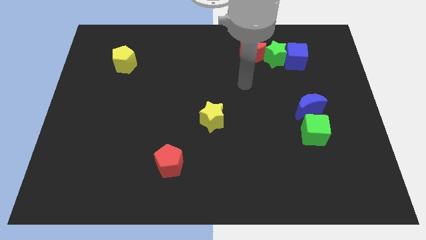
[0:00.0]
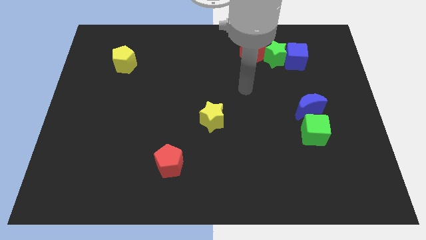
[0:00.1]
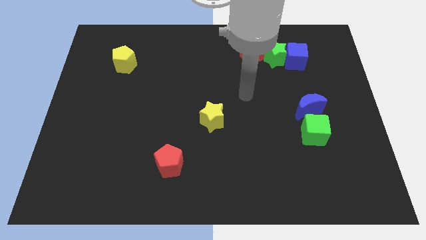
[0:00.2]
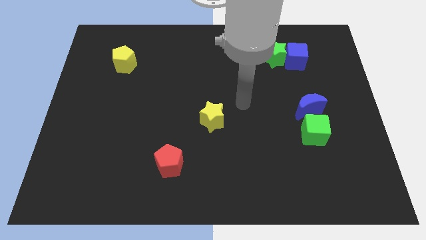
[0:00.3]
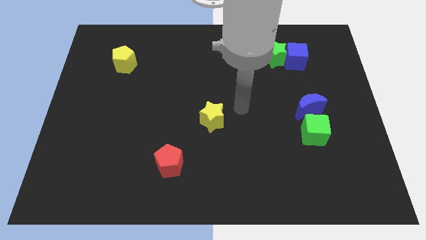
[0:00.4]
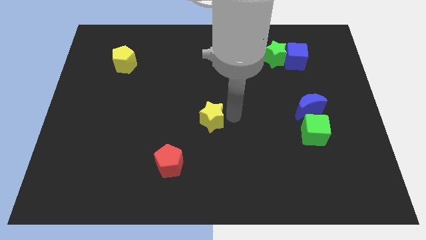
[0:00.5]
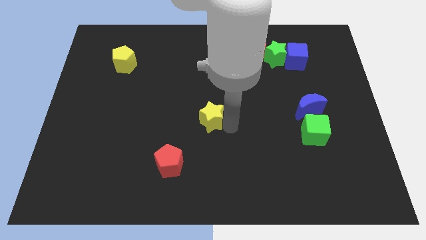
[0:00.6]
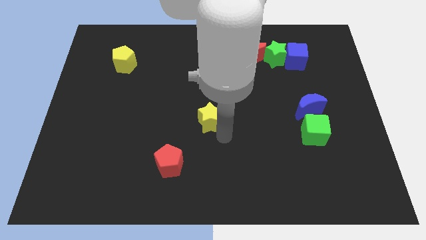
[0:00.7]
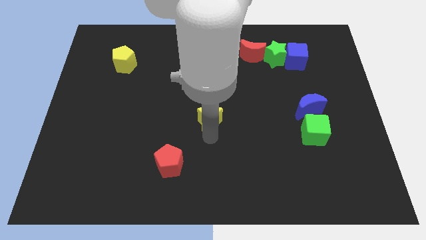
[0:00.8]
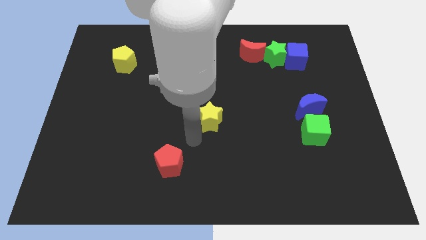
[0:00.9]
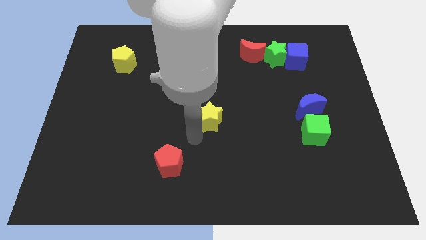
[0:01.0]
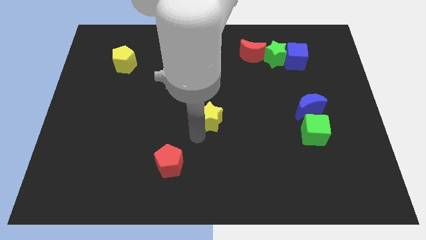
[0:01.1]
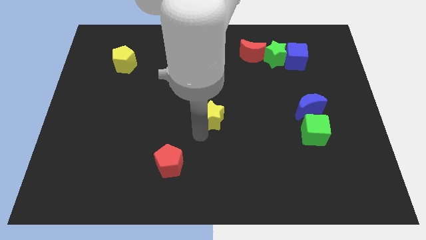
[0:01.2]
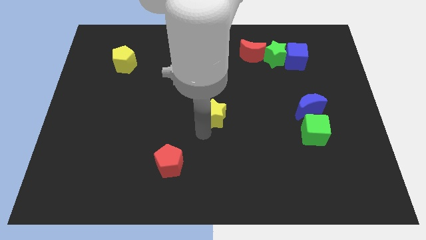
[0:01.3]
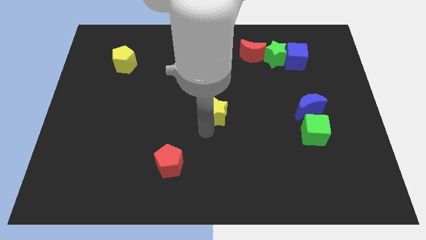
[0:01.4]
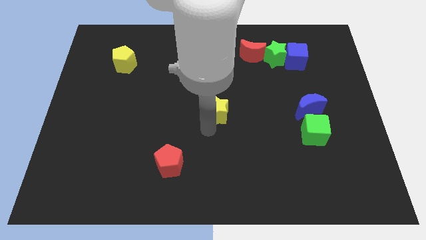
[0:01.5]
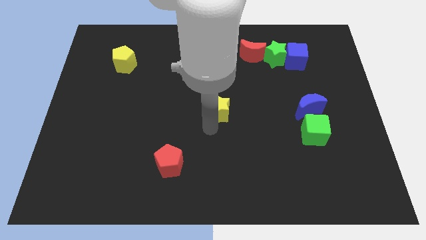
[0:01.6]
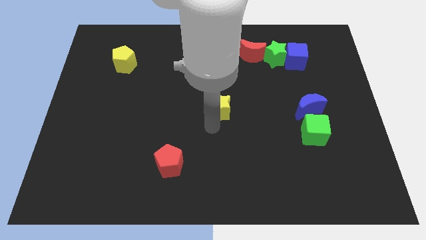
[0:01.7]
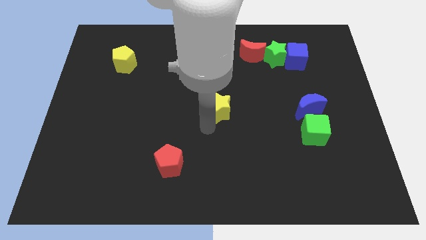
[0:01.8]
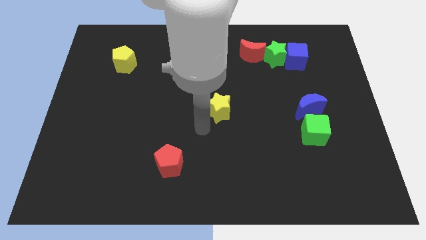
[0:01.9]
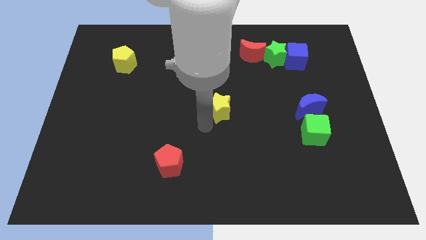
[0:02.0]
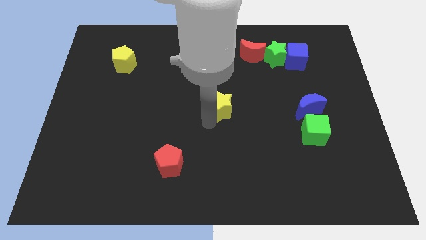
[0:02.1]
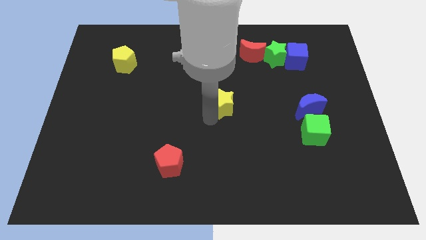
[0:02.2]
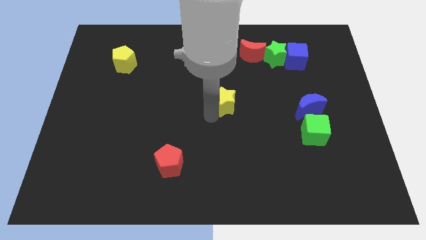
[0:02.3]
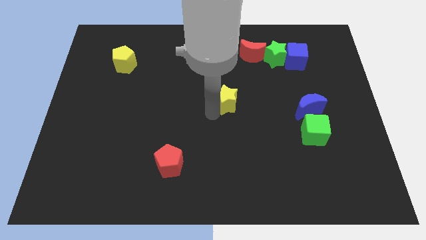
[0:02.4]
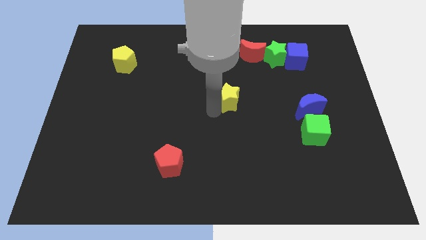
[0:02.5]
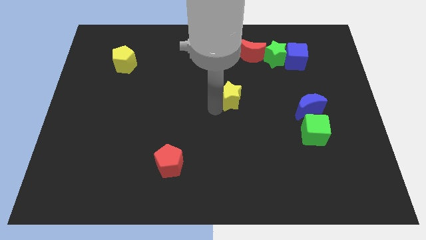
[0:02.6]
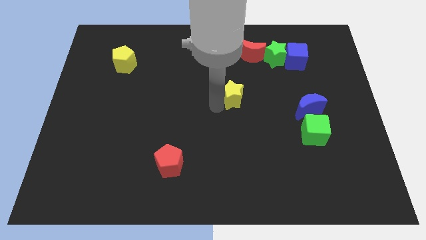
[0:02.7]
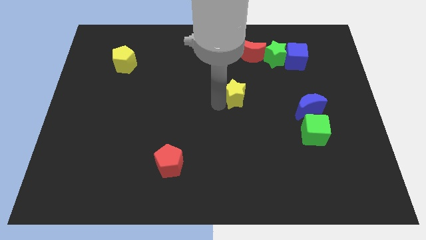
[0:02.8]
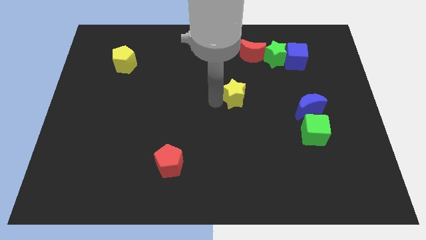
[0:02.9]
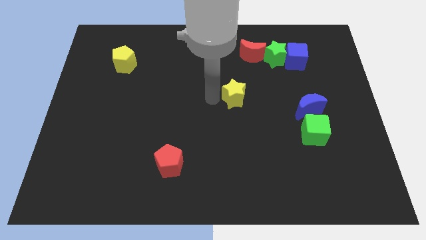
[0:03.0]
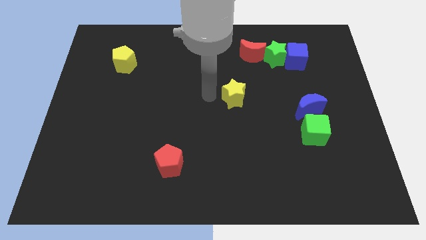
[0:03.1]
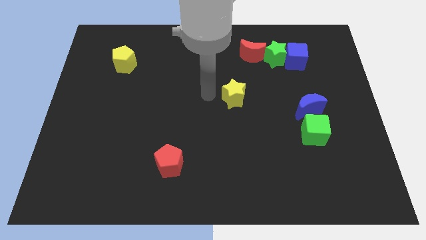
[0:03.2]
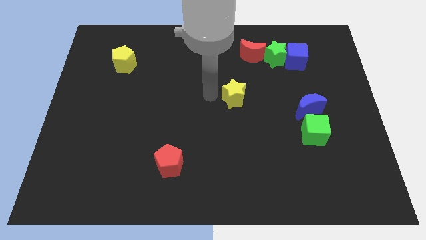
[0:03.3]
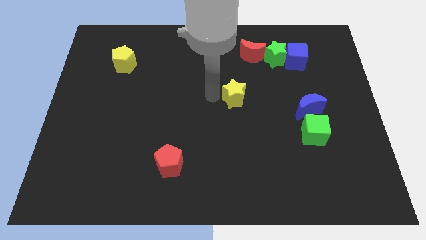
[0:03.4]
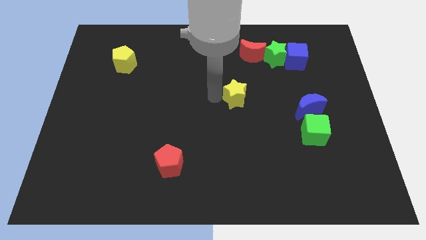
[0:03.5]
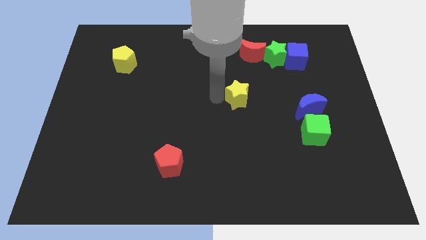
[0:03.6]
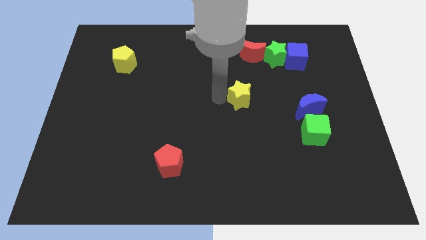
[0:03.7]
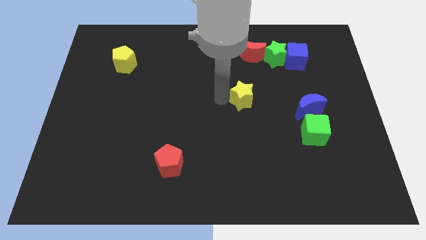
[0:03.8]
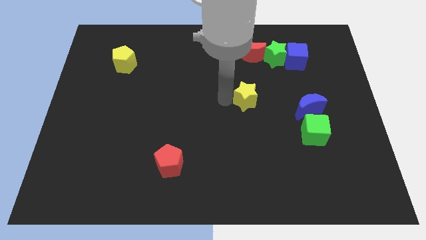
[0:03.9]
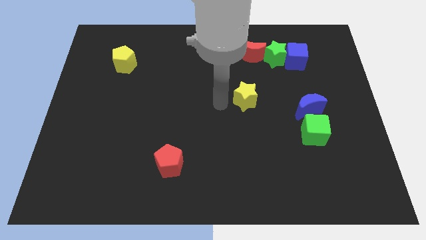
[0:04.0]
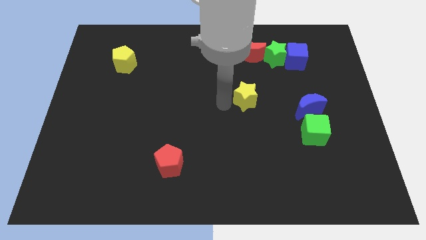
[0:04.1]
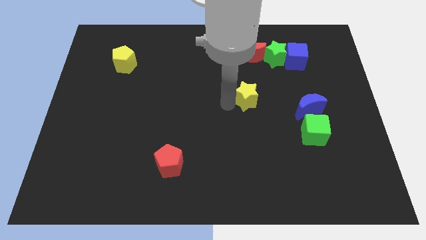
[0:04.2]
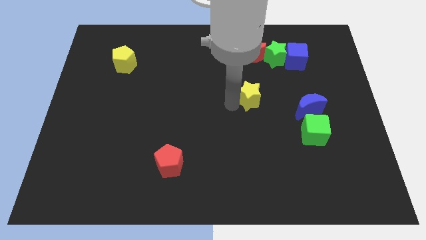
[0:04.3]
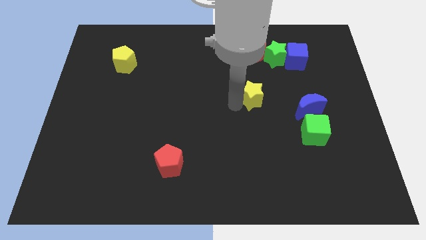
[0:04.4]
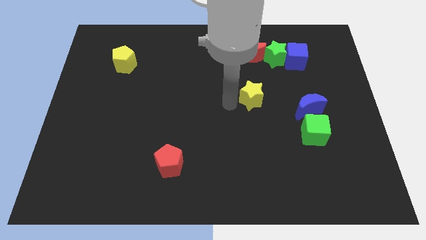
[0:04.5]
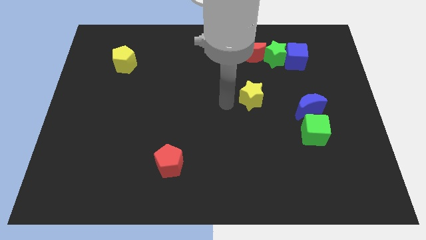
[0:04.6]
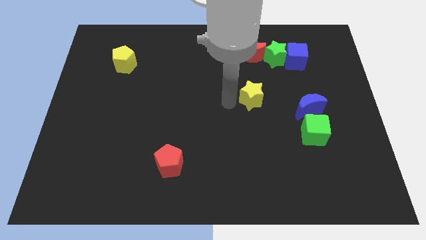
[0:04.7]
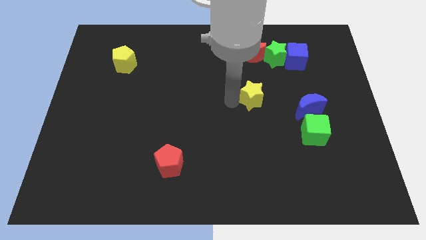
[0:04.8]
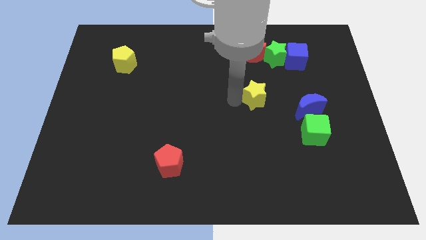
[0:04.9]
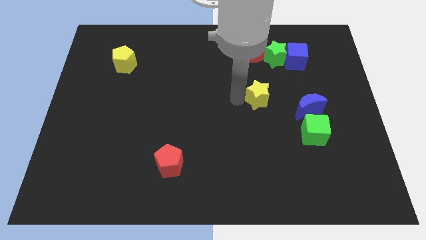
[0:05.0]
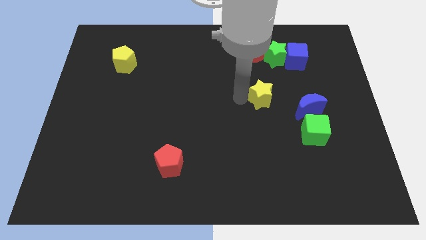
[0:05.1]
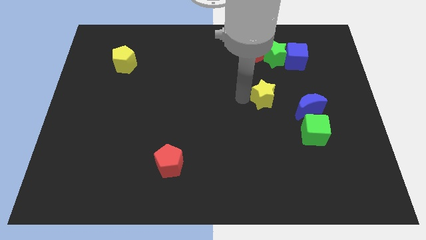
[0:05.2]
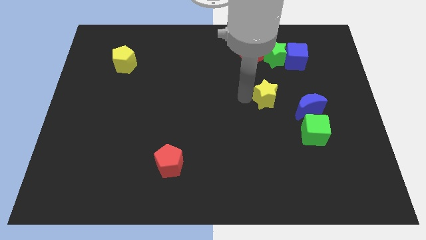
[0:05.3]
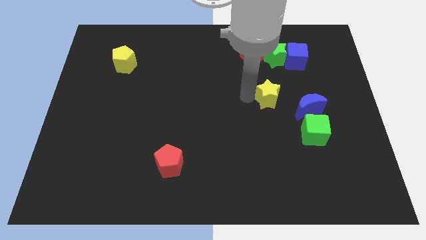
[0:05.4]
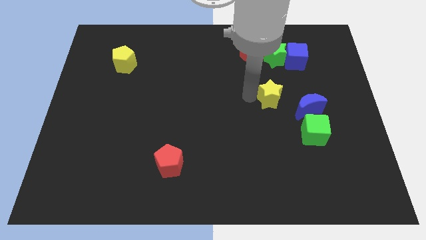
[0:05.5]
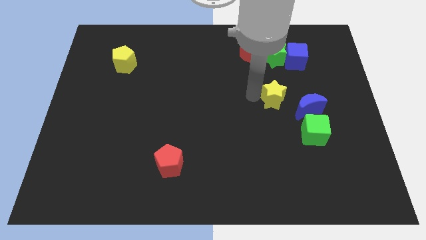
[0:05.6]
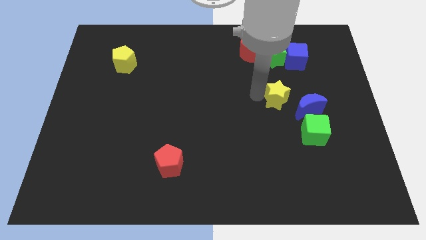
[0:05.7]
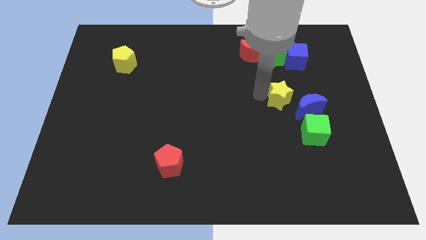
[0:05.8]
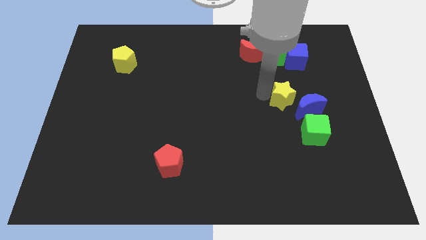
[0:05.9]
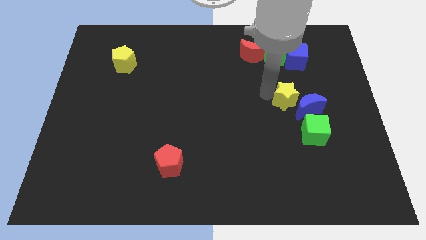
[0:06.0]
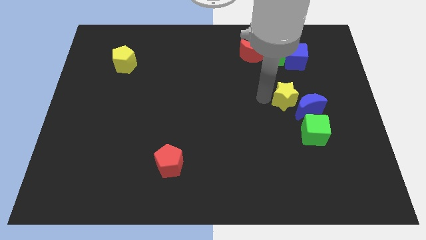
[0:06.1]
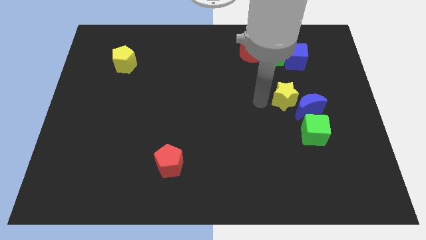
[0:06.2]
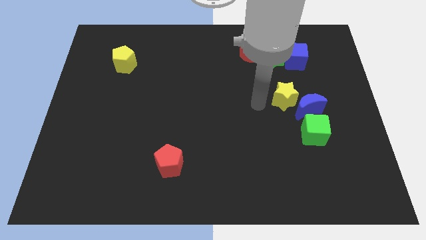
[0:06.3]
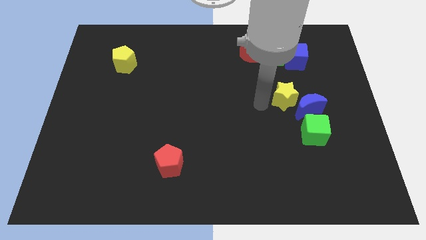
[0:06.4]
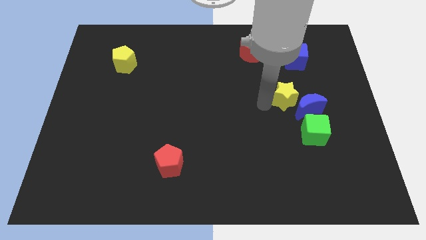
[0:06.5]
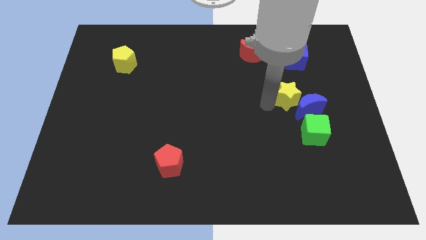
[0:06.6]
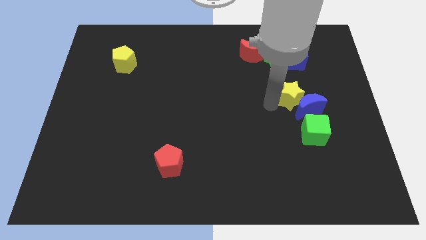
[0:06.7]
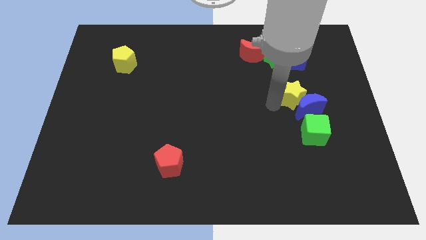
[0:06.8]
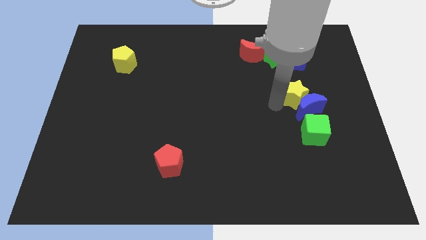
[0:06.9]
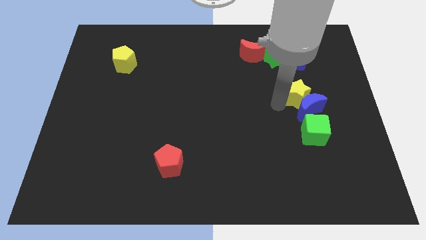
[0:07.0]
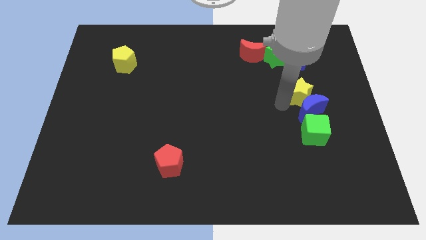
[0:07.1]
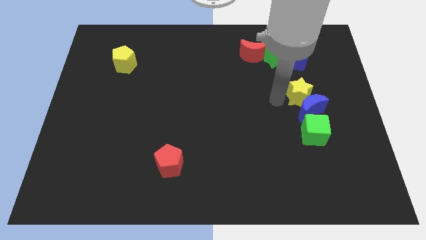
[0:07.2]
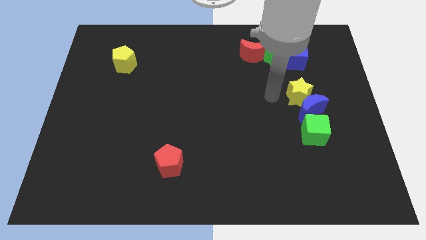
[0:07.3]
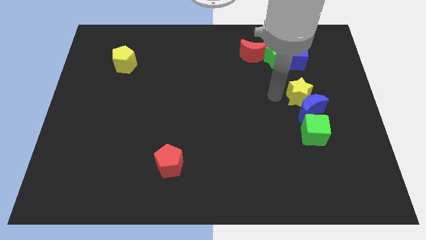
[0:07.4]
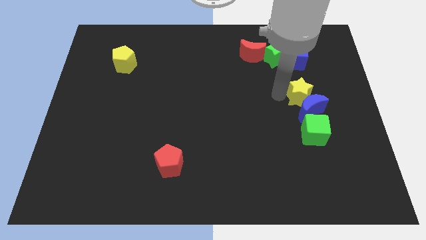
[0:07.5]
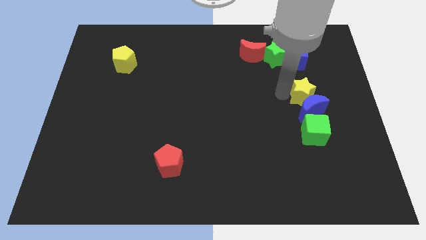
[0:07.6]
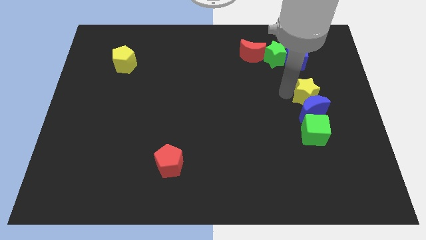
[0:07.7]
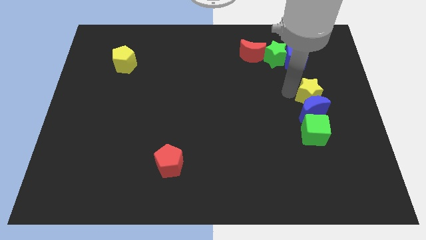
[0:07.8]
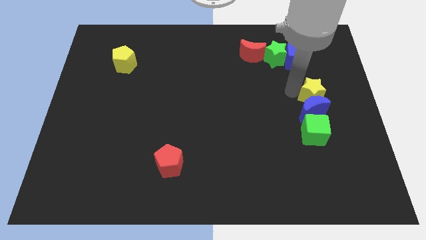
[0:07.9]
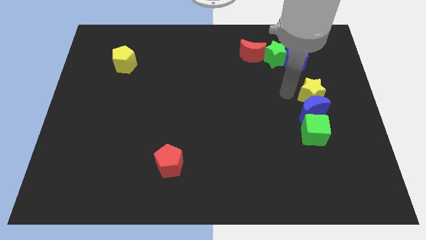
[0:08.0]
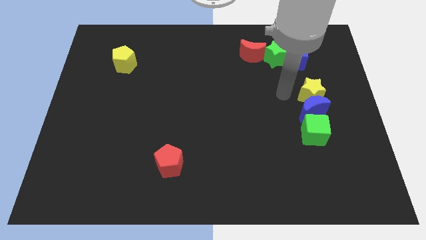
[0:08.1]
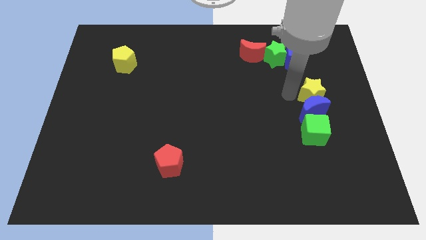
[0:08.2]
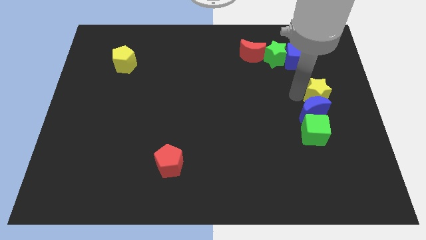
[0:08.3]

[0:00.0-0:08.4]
slide the yellow star to the right side of the board
